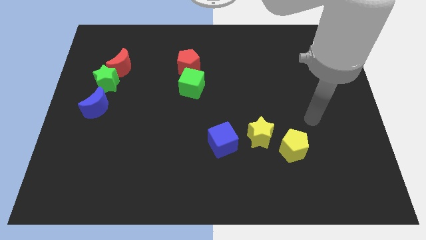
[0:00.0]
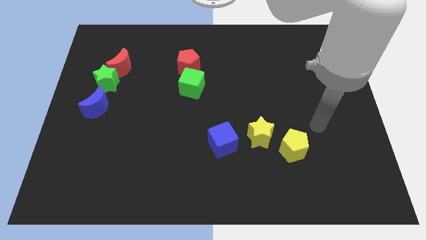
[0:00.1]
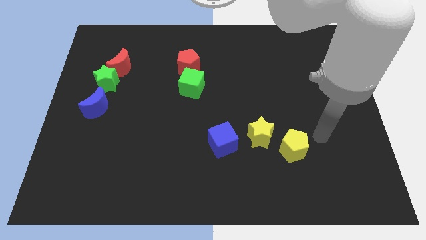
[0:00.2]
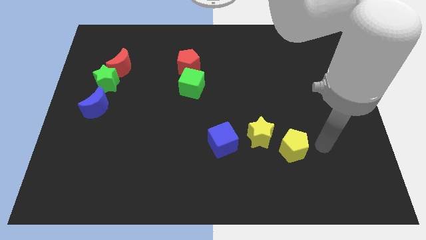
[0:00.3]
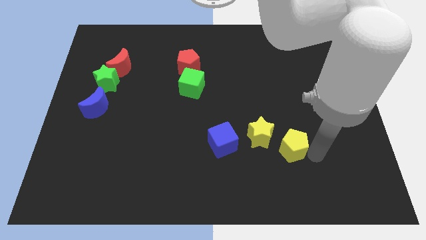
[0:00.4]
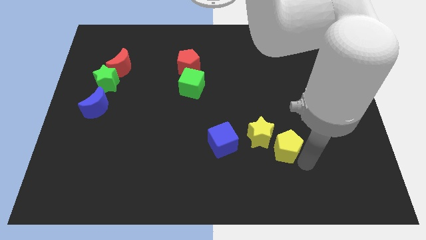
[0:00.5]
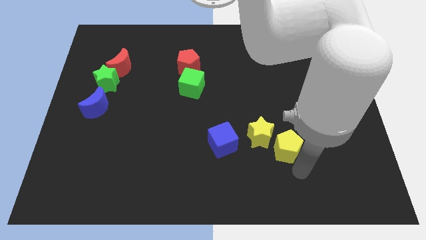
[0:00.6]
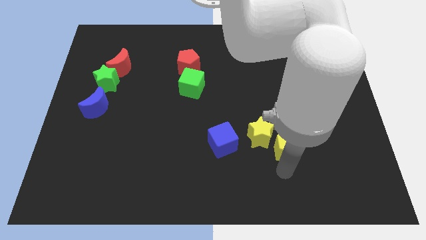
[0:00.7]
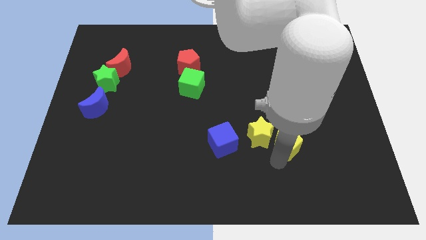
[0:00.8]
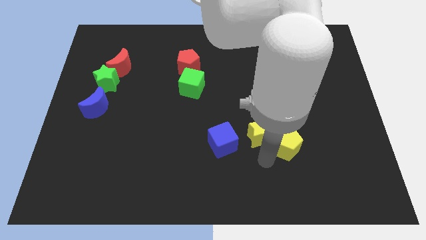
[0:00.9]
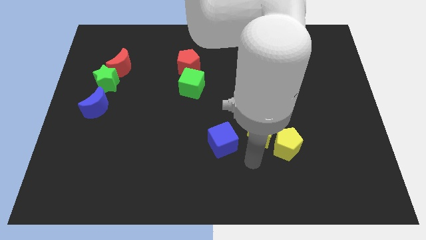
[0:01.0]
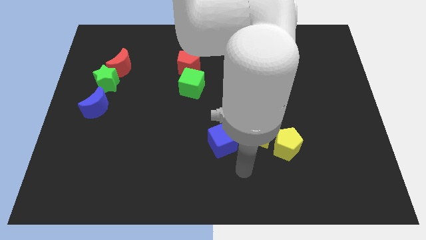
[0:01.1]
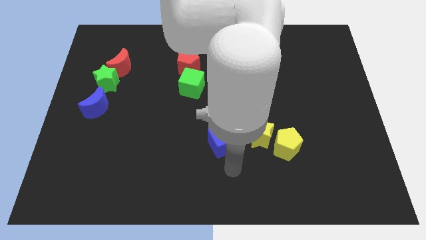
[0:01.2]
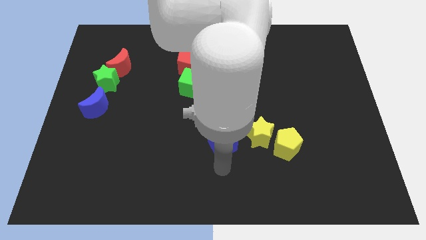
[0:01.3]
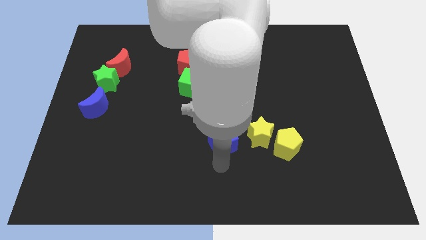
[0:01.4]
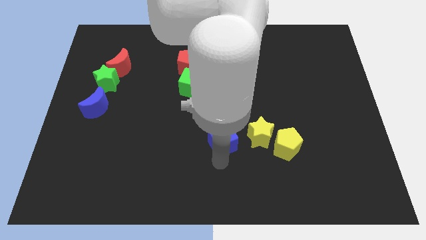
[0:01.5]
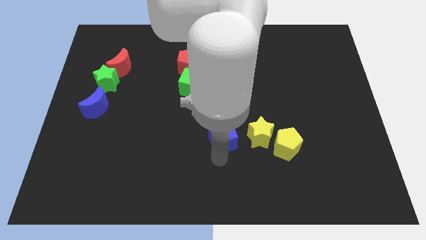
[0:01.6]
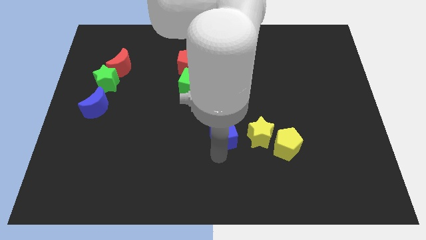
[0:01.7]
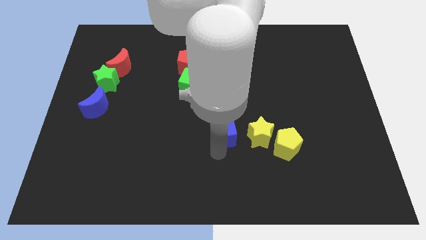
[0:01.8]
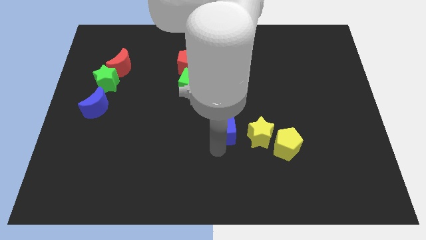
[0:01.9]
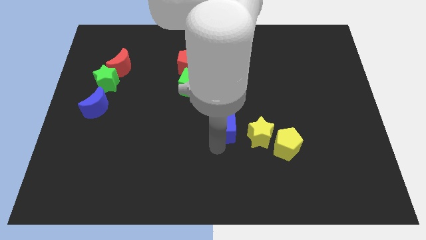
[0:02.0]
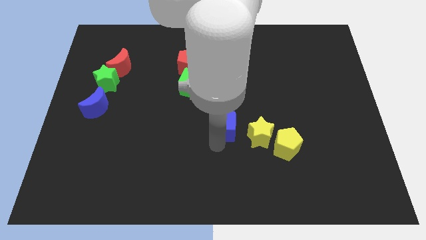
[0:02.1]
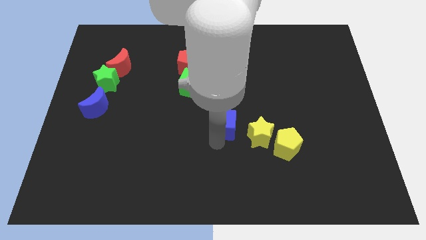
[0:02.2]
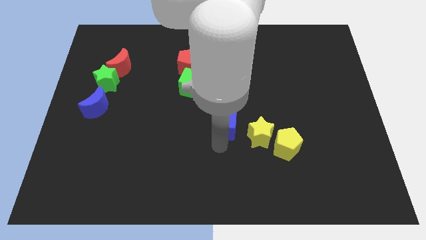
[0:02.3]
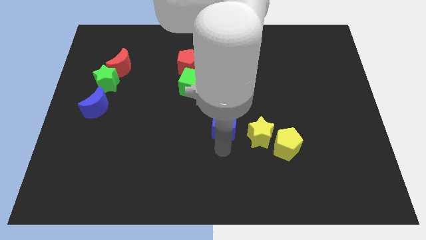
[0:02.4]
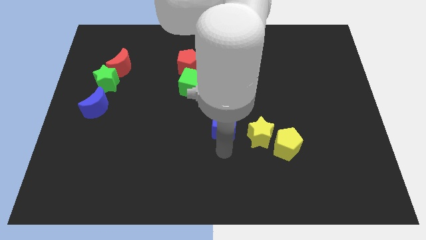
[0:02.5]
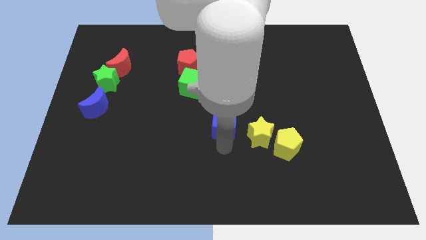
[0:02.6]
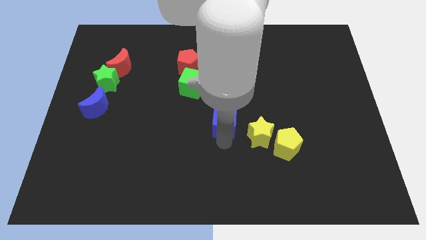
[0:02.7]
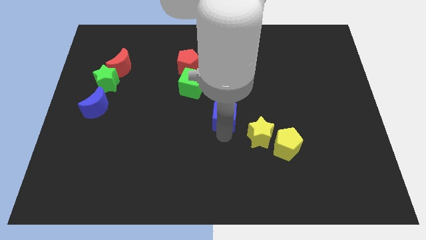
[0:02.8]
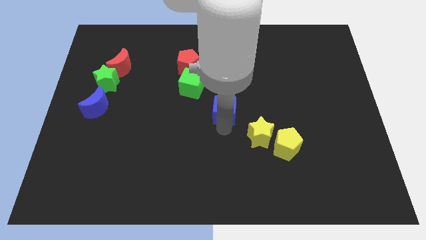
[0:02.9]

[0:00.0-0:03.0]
slide the blue cube up a little bit

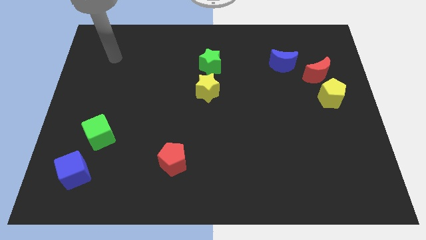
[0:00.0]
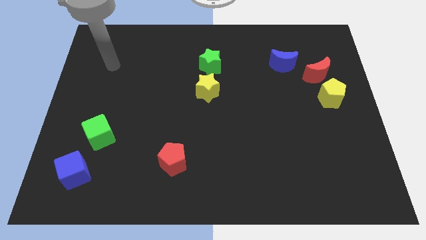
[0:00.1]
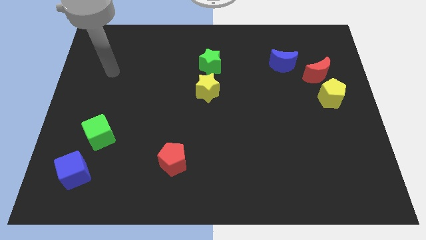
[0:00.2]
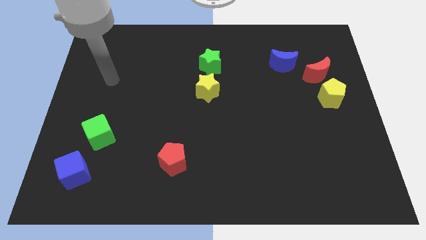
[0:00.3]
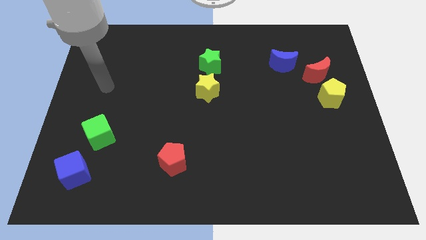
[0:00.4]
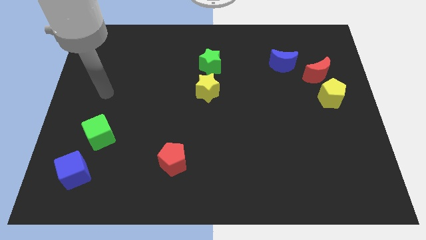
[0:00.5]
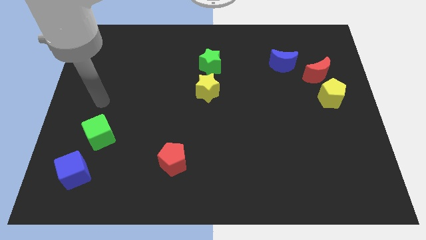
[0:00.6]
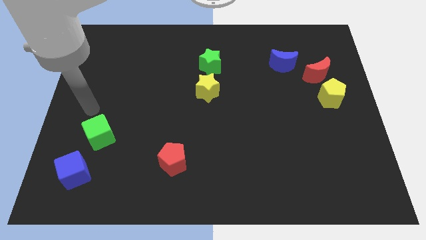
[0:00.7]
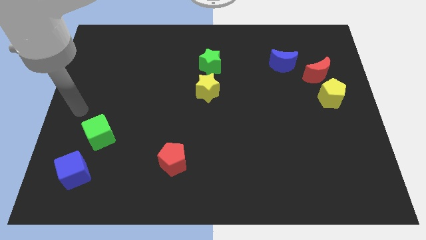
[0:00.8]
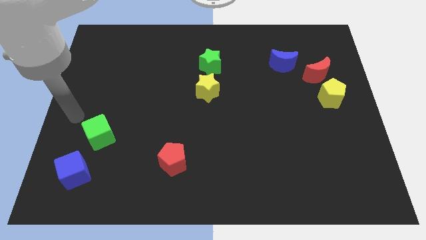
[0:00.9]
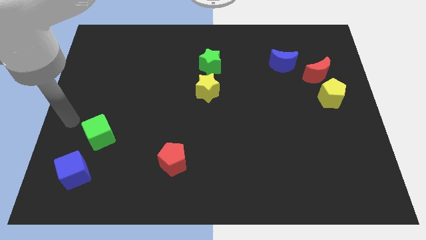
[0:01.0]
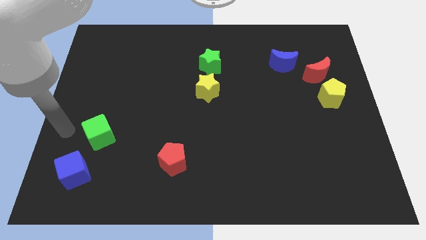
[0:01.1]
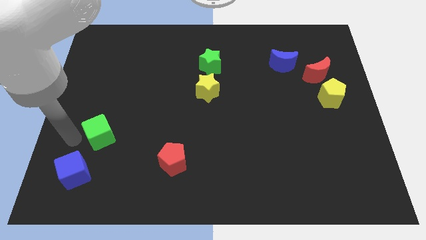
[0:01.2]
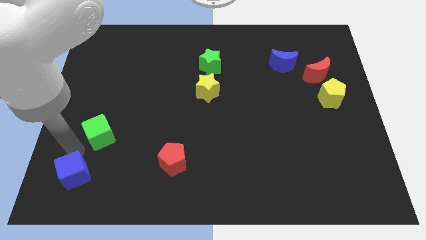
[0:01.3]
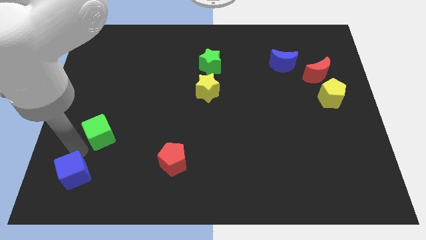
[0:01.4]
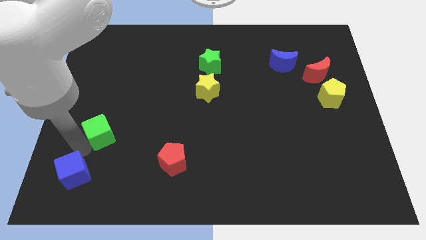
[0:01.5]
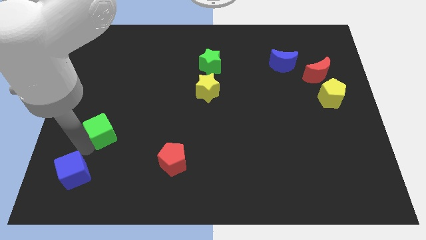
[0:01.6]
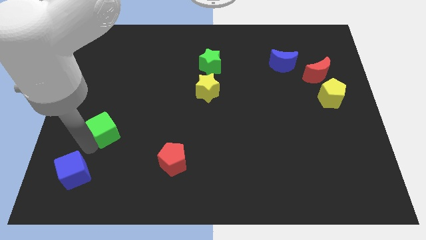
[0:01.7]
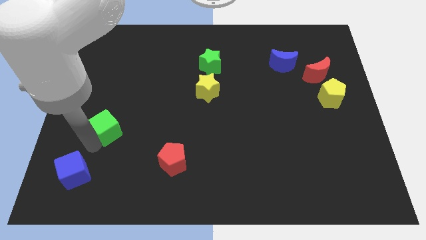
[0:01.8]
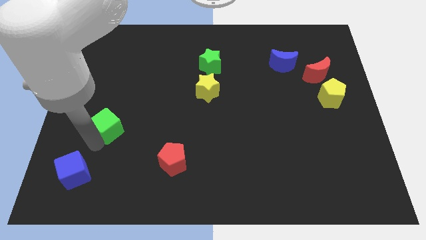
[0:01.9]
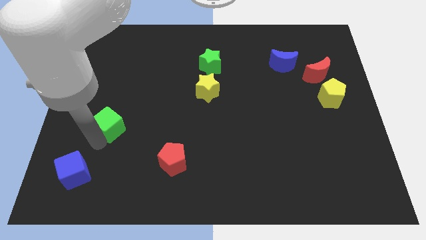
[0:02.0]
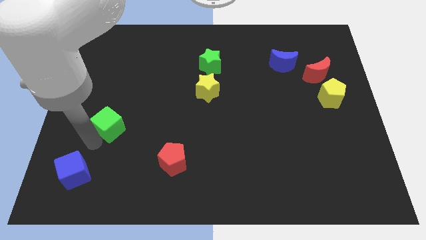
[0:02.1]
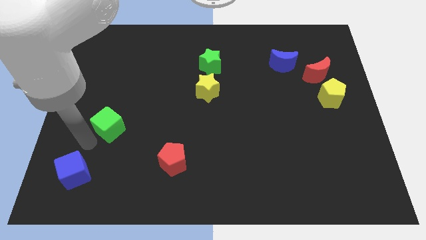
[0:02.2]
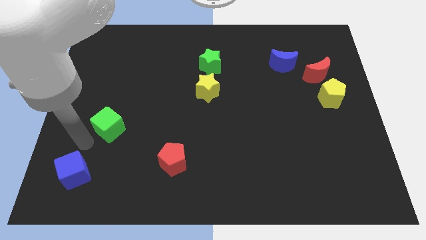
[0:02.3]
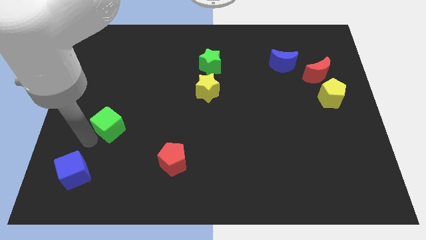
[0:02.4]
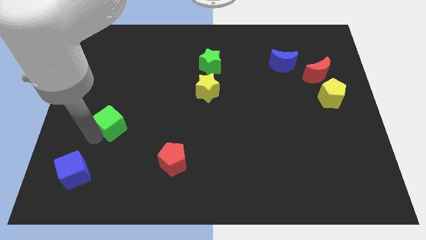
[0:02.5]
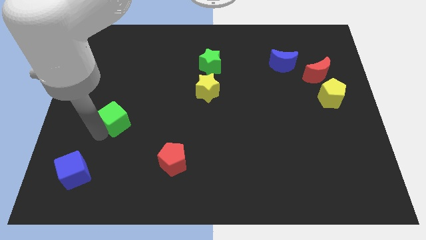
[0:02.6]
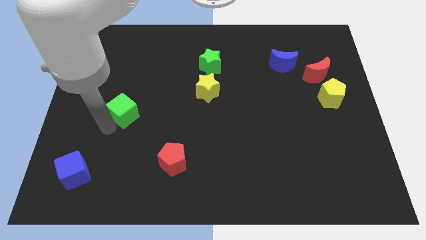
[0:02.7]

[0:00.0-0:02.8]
slightly push the green cube diagonally upwards and right

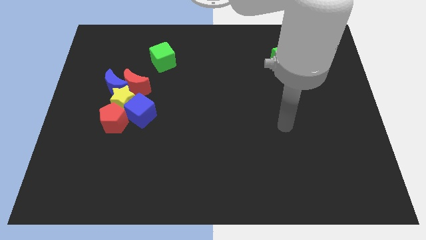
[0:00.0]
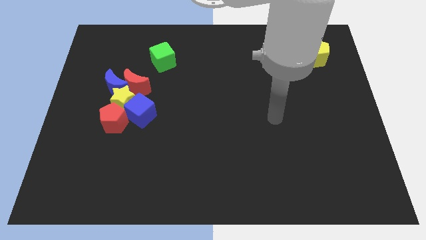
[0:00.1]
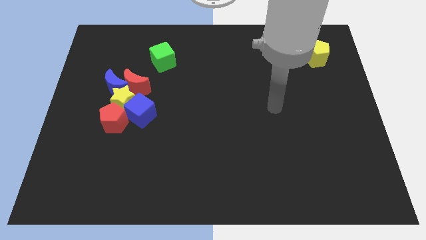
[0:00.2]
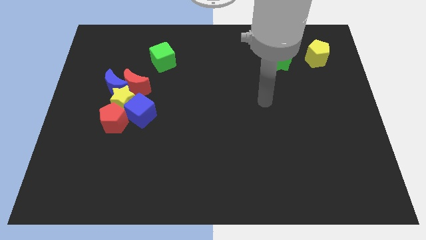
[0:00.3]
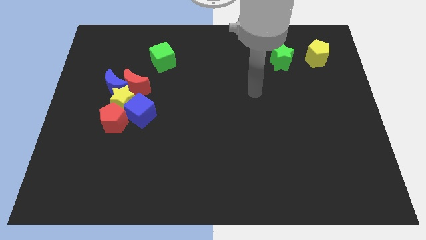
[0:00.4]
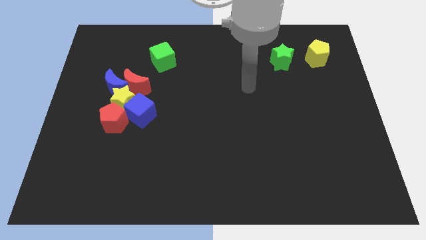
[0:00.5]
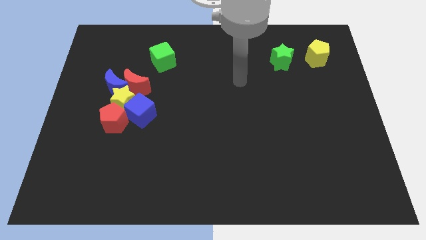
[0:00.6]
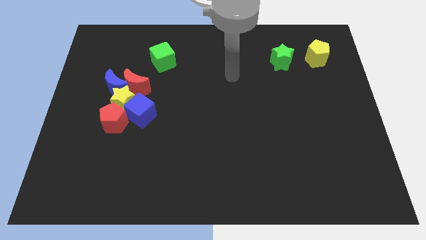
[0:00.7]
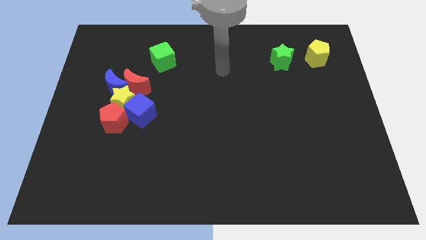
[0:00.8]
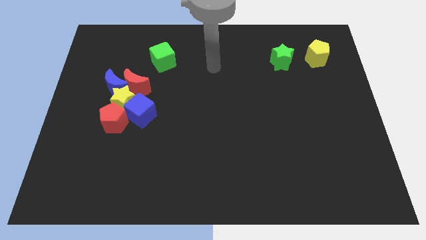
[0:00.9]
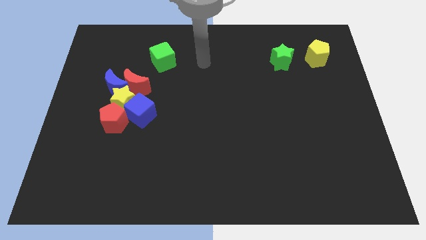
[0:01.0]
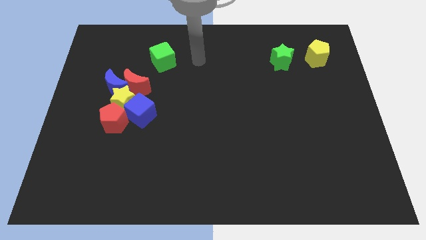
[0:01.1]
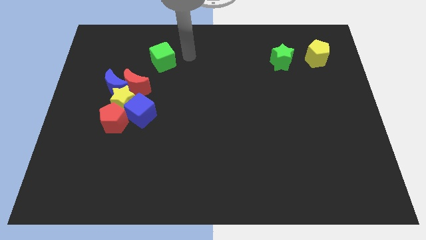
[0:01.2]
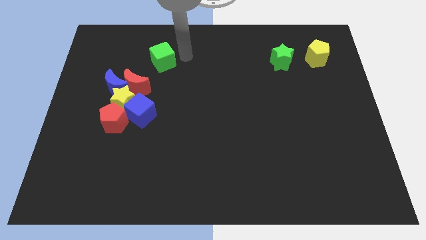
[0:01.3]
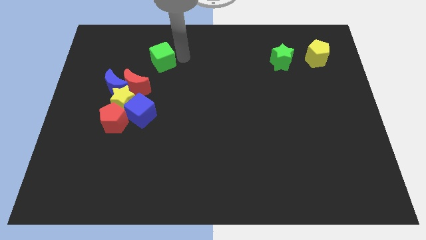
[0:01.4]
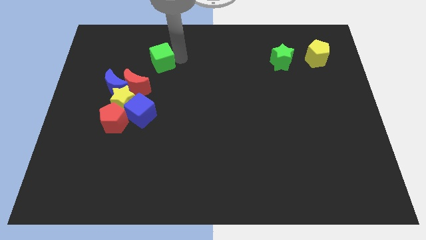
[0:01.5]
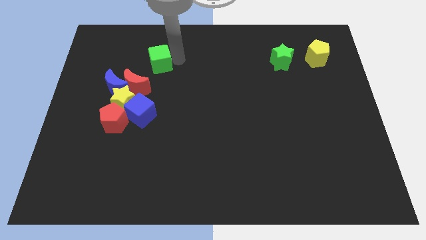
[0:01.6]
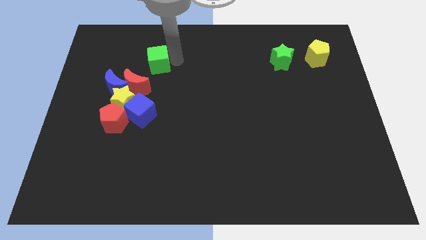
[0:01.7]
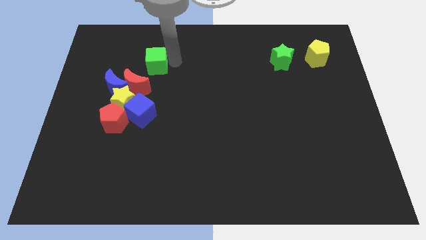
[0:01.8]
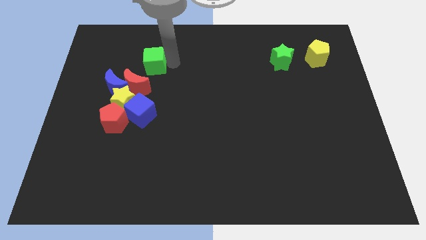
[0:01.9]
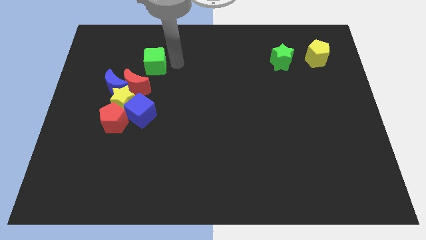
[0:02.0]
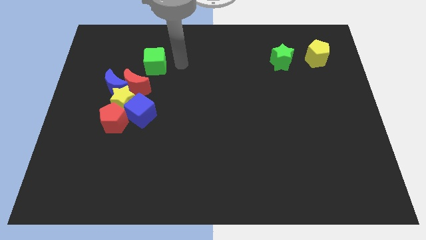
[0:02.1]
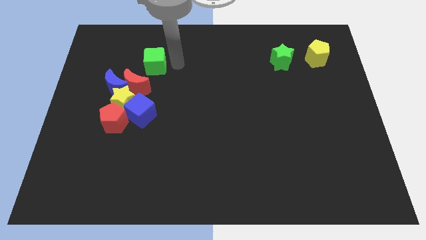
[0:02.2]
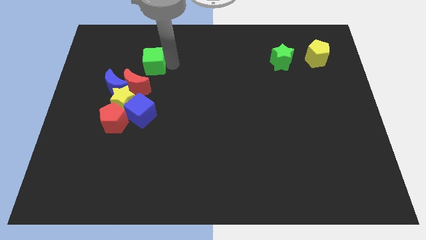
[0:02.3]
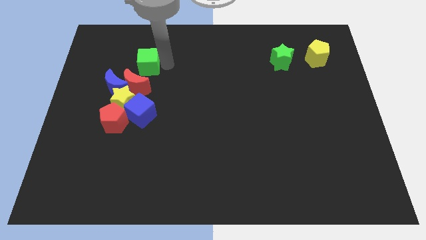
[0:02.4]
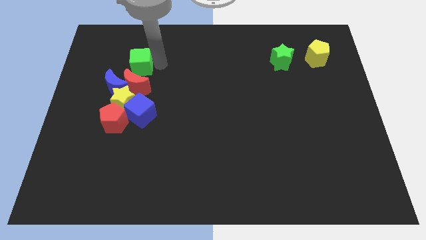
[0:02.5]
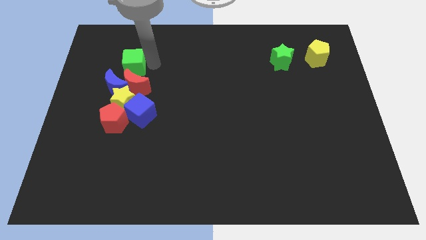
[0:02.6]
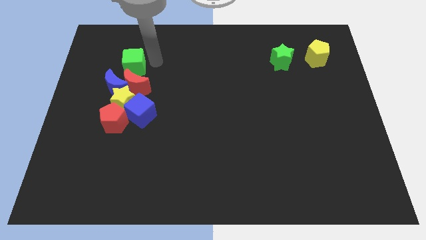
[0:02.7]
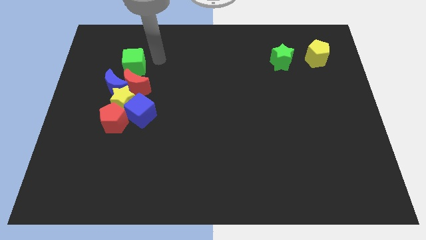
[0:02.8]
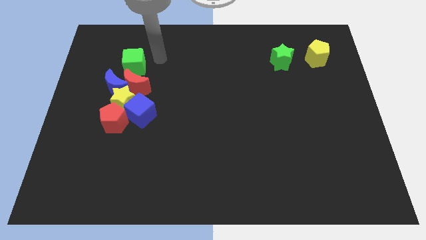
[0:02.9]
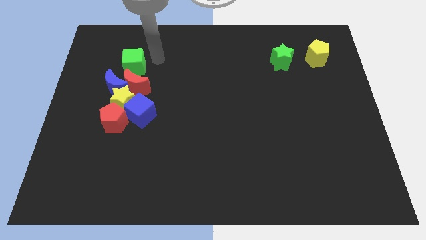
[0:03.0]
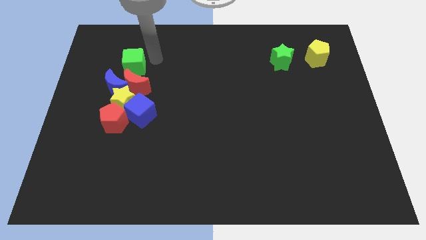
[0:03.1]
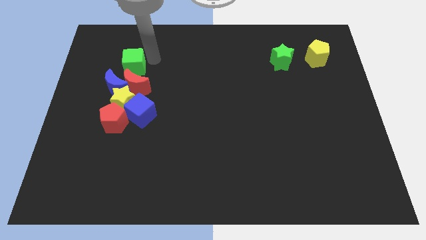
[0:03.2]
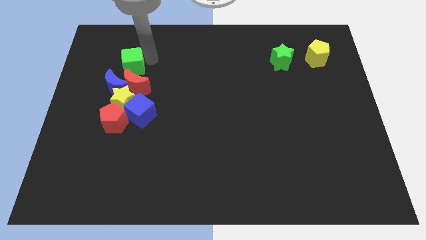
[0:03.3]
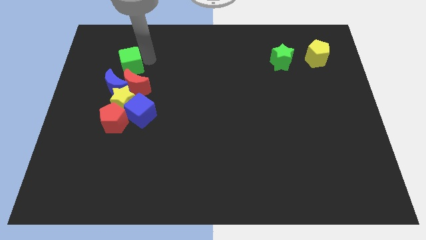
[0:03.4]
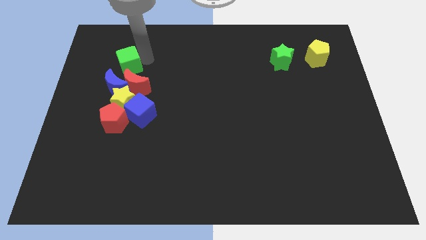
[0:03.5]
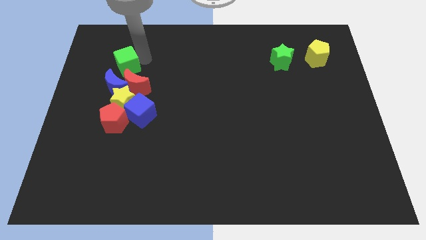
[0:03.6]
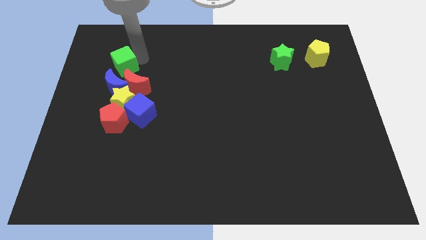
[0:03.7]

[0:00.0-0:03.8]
move the green cube down and to the left diagonally a little bit
